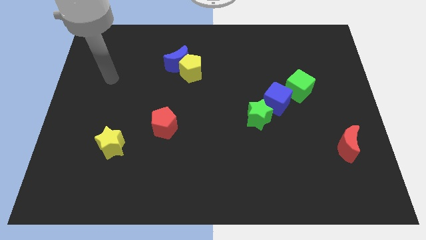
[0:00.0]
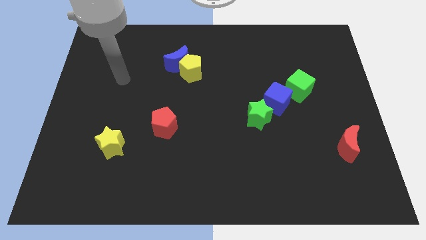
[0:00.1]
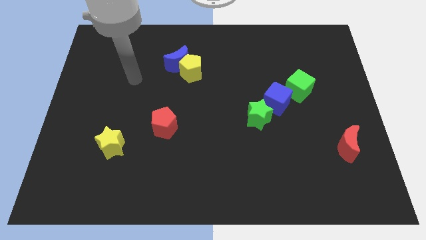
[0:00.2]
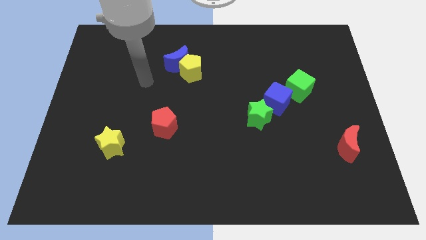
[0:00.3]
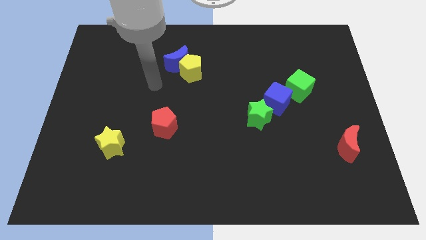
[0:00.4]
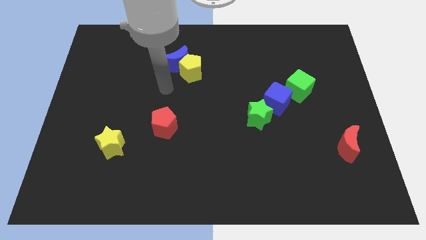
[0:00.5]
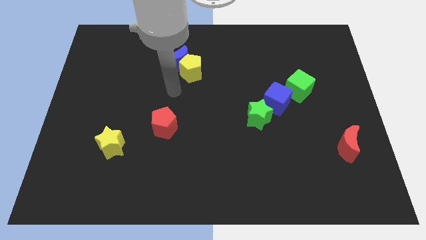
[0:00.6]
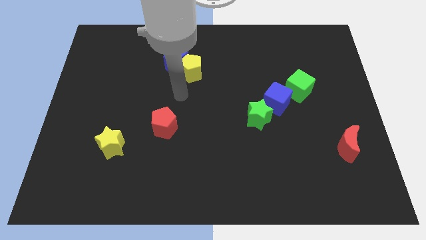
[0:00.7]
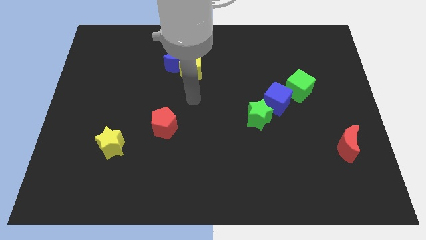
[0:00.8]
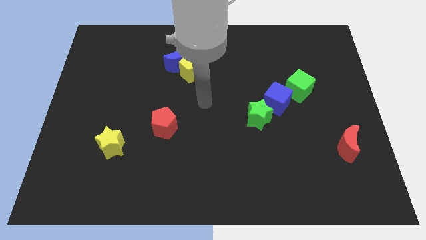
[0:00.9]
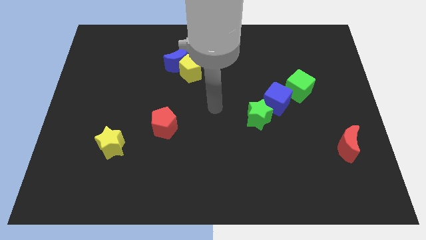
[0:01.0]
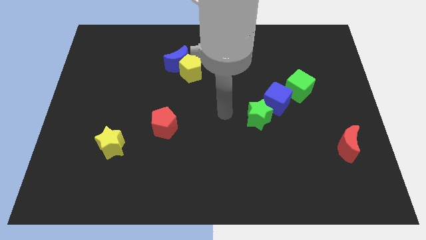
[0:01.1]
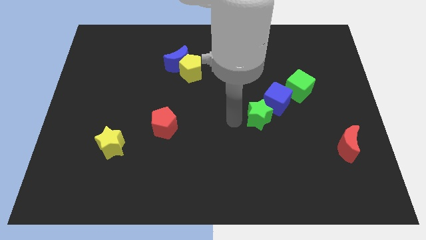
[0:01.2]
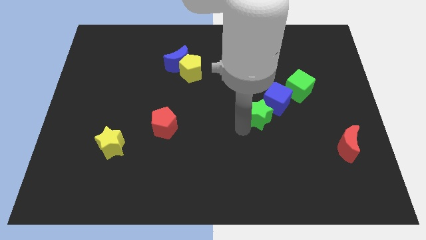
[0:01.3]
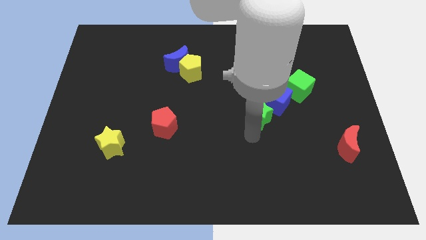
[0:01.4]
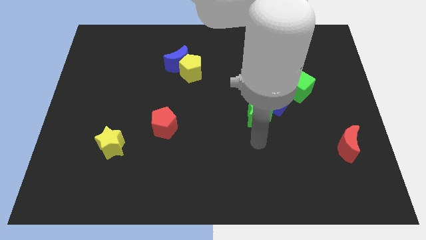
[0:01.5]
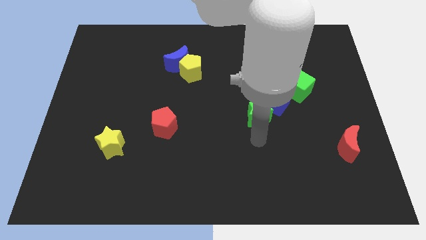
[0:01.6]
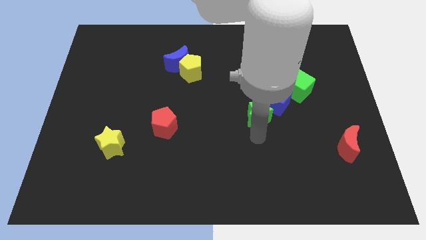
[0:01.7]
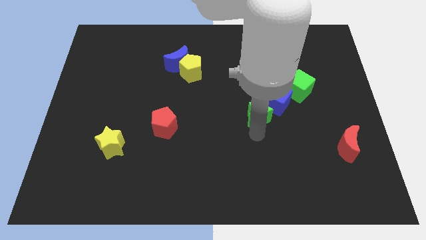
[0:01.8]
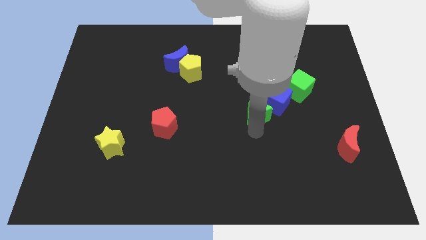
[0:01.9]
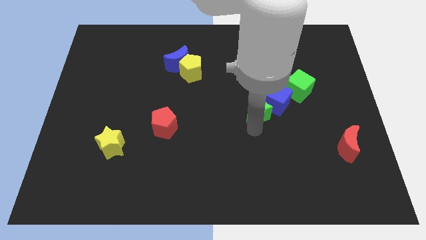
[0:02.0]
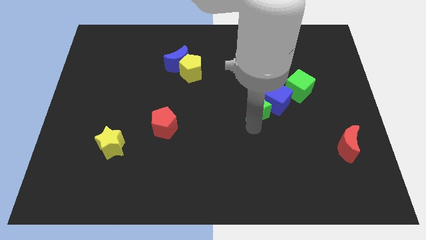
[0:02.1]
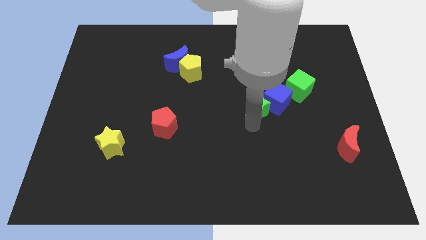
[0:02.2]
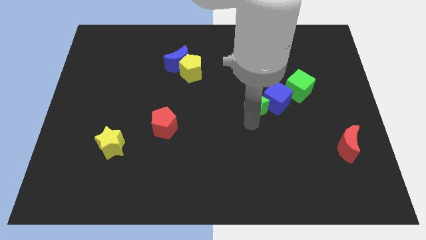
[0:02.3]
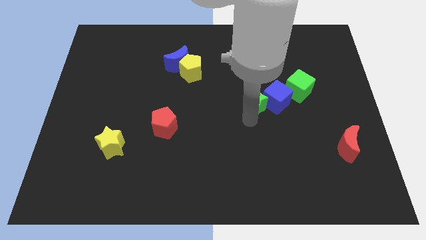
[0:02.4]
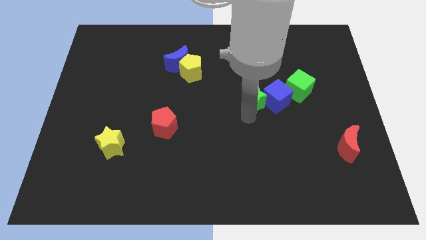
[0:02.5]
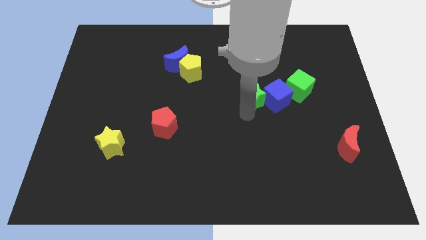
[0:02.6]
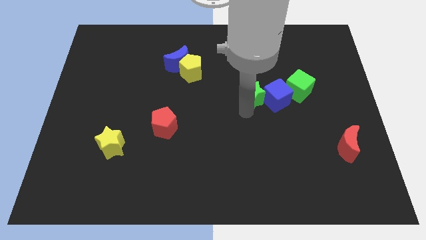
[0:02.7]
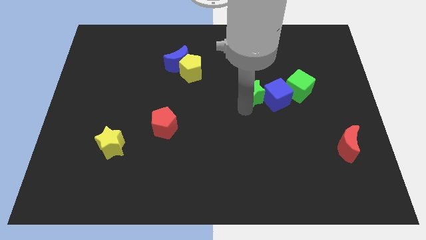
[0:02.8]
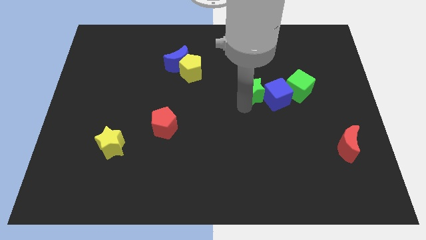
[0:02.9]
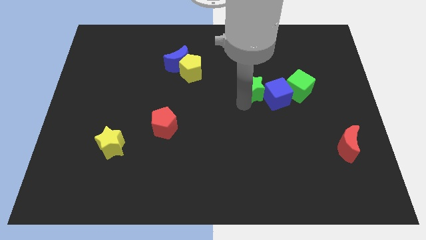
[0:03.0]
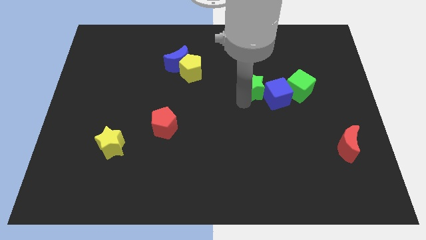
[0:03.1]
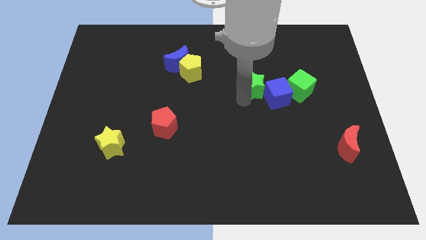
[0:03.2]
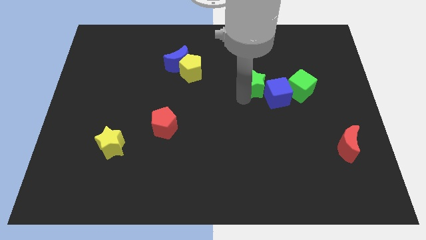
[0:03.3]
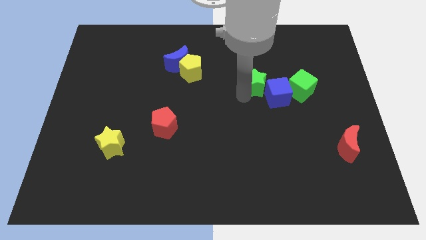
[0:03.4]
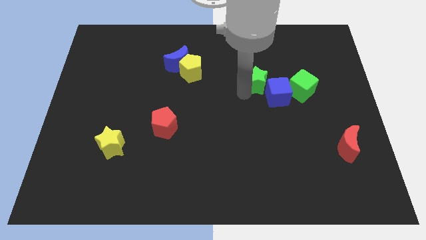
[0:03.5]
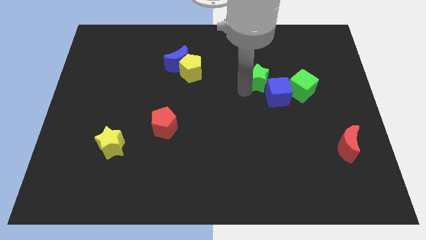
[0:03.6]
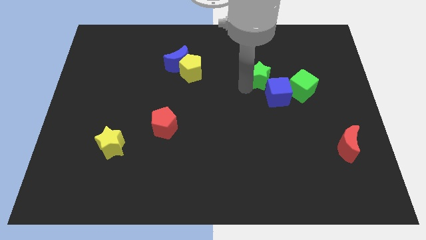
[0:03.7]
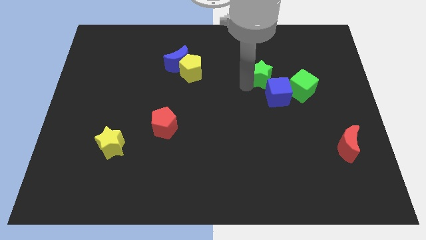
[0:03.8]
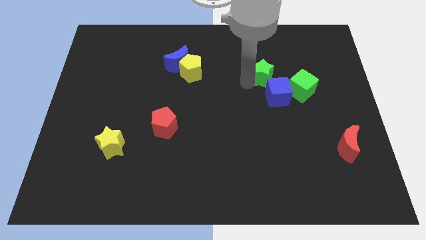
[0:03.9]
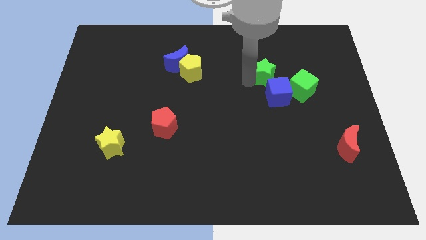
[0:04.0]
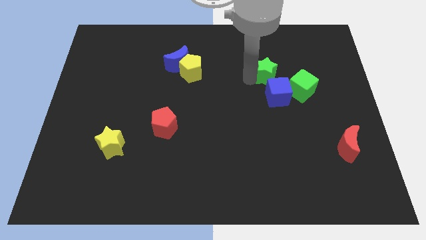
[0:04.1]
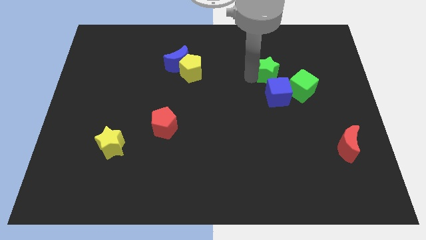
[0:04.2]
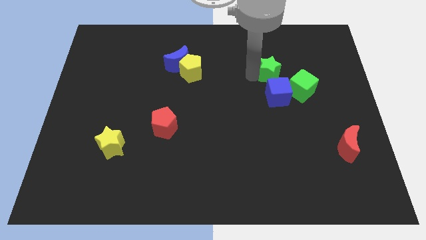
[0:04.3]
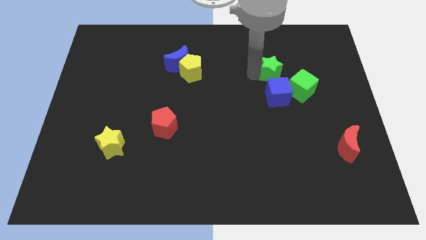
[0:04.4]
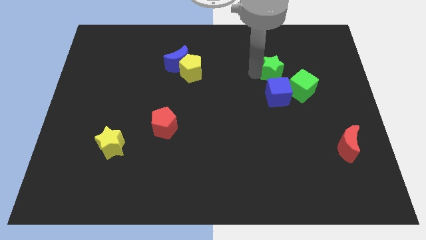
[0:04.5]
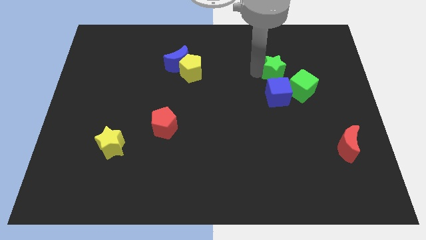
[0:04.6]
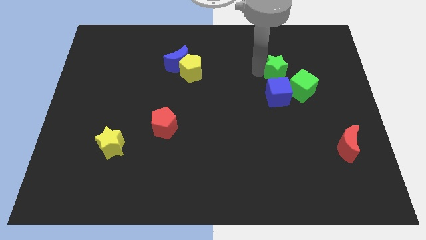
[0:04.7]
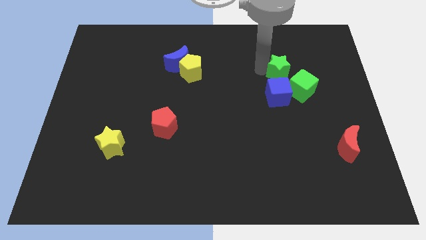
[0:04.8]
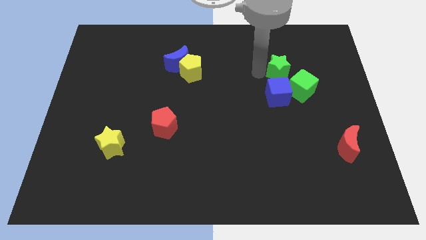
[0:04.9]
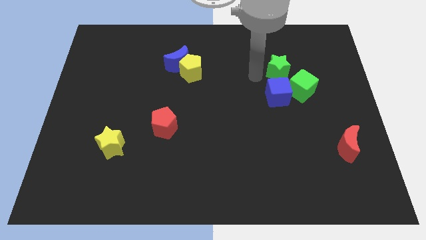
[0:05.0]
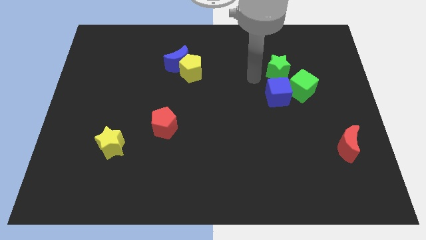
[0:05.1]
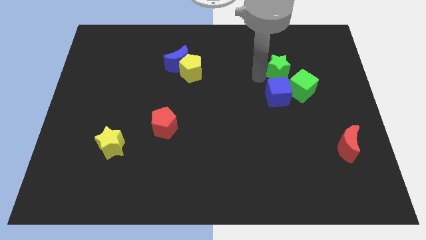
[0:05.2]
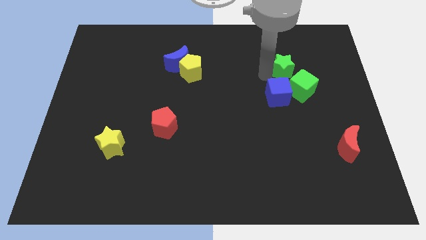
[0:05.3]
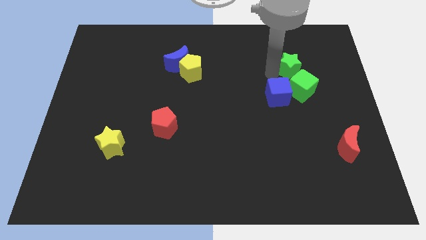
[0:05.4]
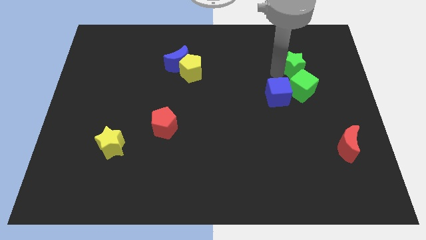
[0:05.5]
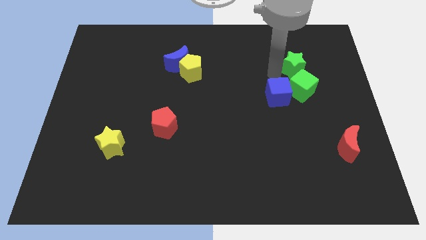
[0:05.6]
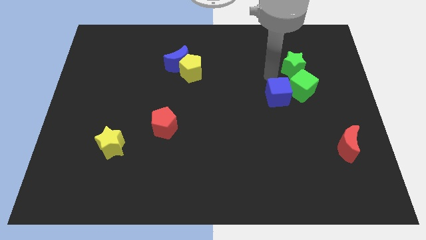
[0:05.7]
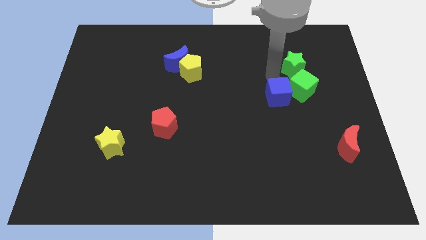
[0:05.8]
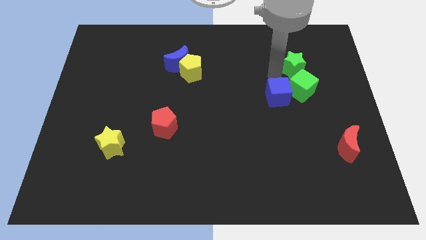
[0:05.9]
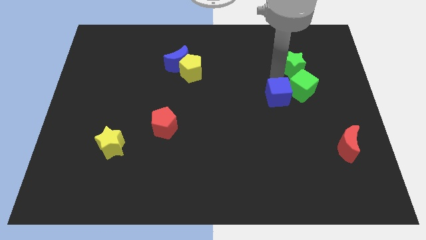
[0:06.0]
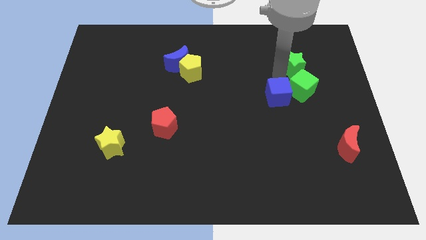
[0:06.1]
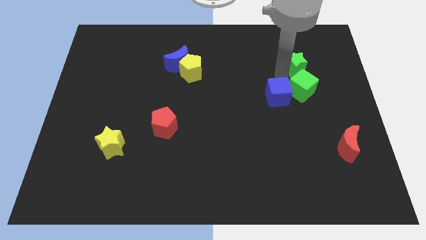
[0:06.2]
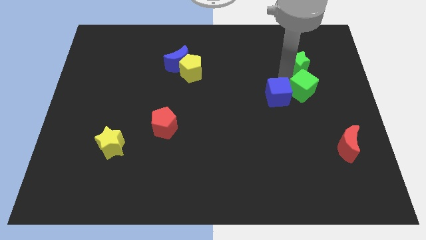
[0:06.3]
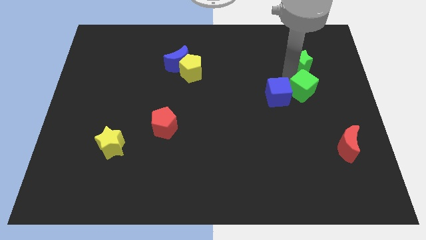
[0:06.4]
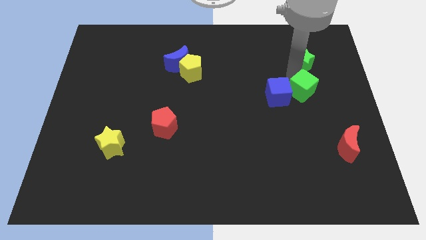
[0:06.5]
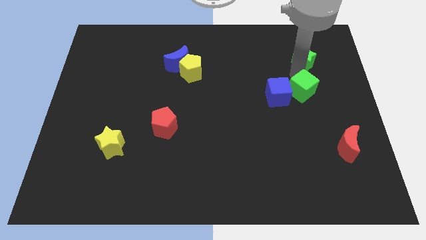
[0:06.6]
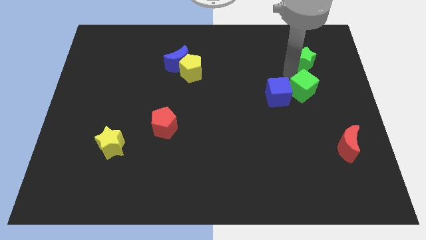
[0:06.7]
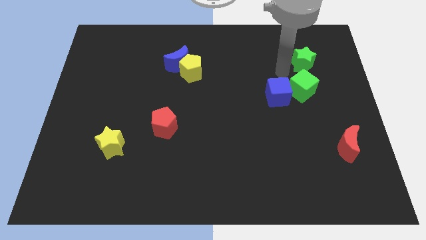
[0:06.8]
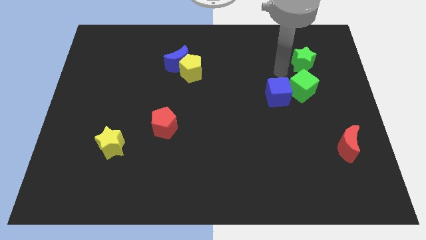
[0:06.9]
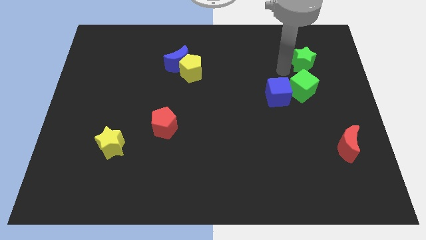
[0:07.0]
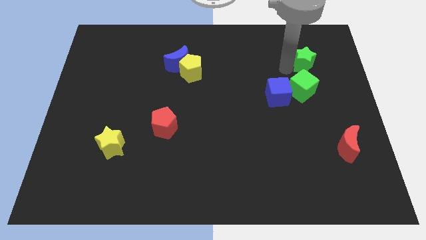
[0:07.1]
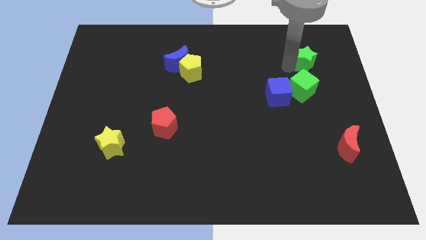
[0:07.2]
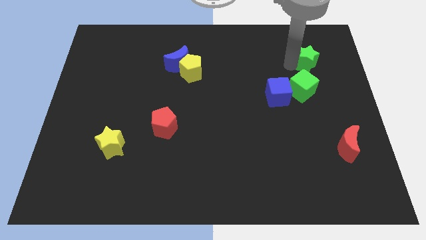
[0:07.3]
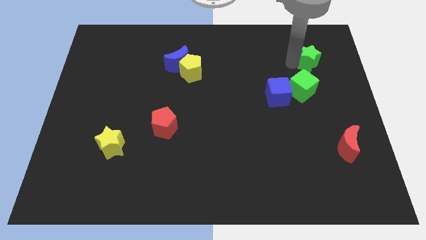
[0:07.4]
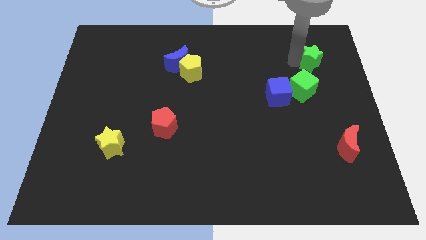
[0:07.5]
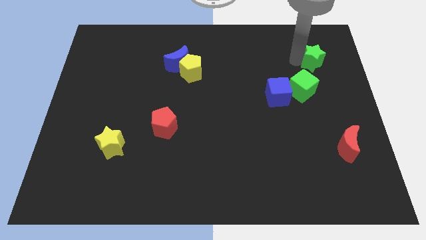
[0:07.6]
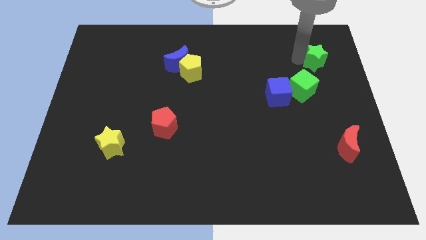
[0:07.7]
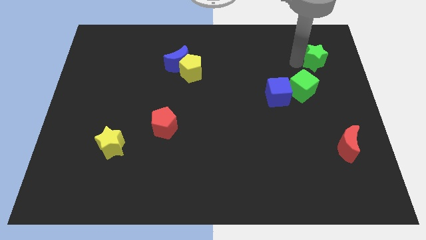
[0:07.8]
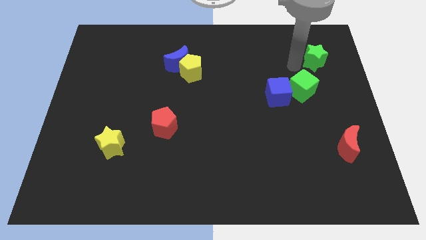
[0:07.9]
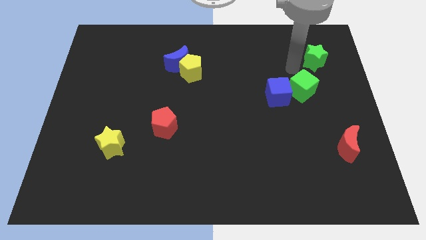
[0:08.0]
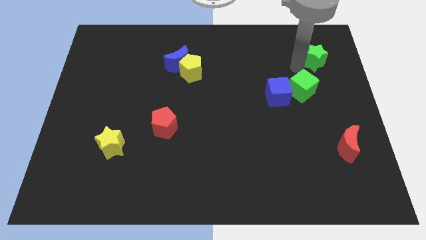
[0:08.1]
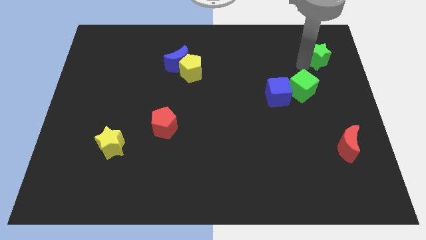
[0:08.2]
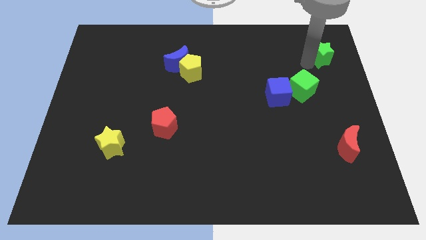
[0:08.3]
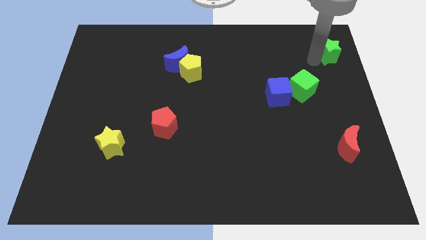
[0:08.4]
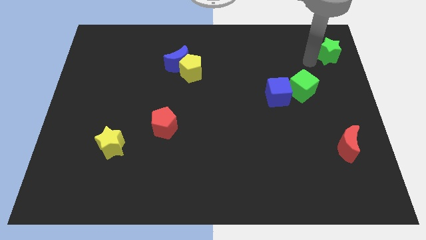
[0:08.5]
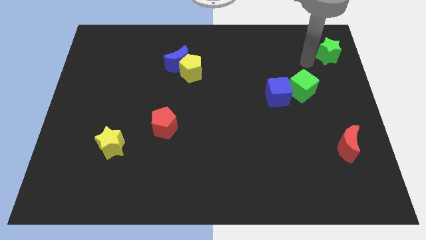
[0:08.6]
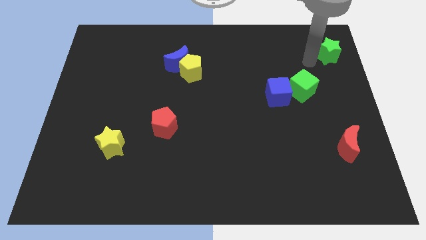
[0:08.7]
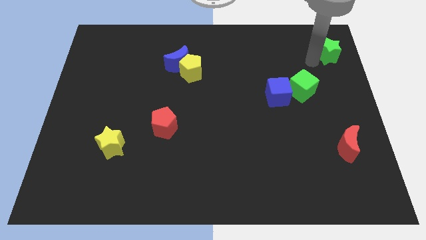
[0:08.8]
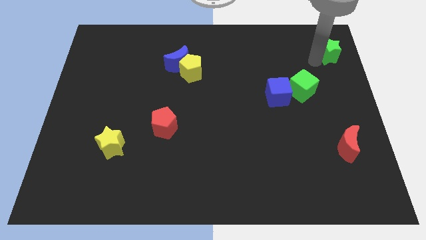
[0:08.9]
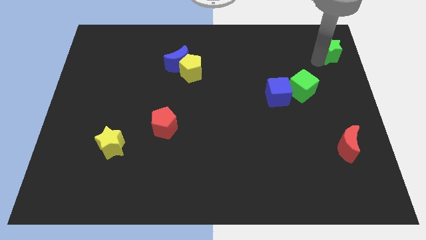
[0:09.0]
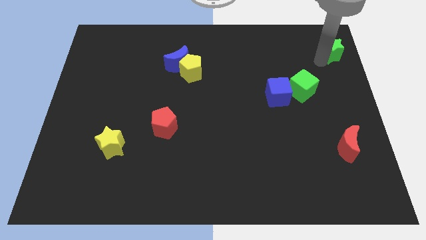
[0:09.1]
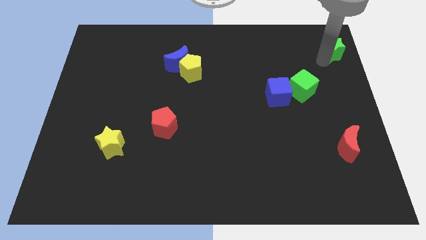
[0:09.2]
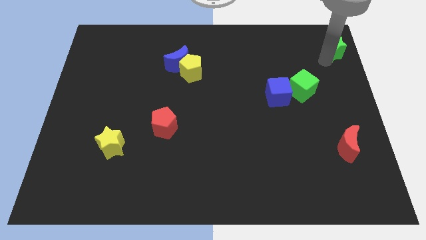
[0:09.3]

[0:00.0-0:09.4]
move the green star to the upper right corner
